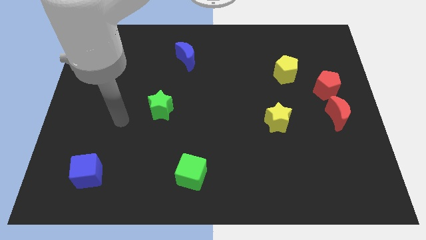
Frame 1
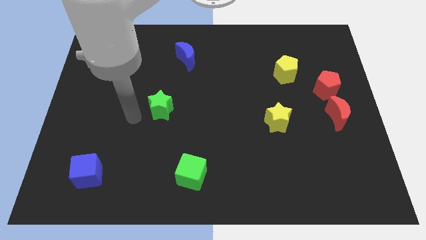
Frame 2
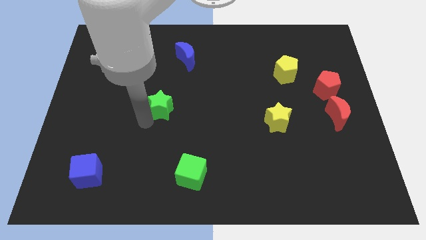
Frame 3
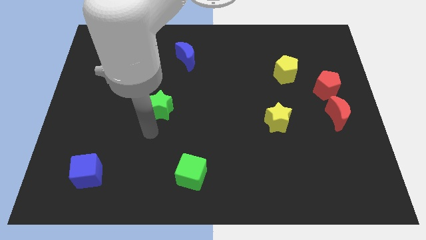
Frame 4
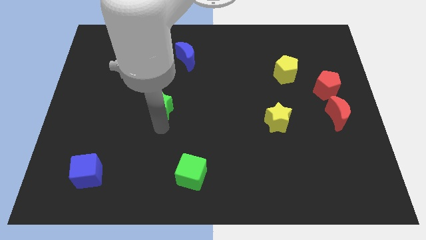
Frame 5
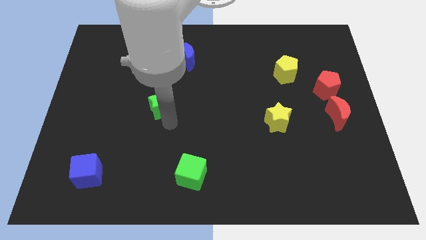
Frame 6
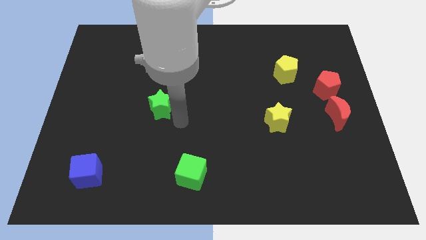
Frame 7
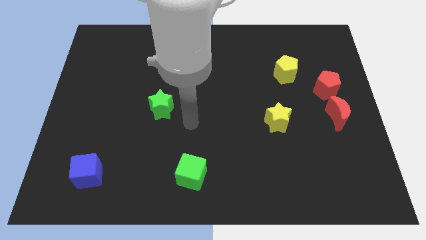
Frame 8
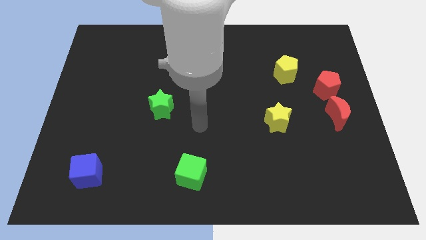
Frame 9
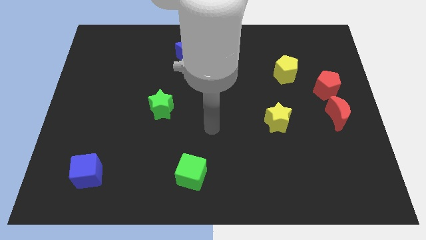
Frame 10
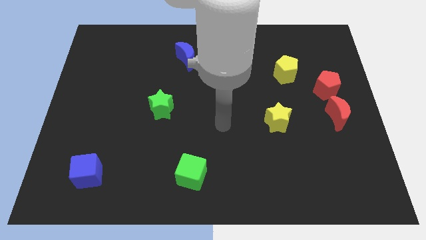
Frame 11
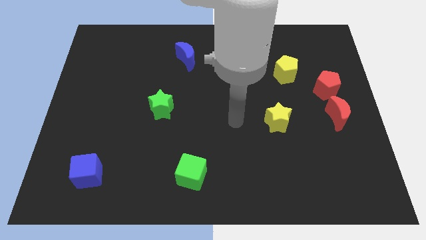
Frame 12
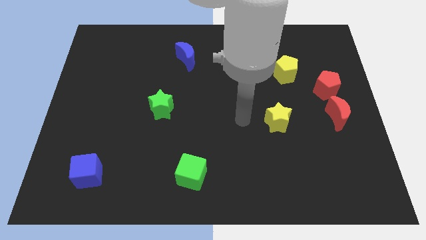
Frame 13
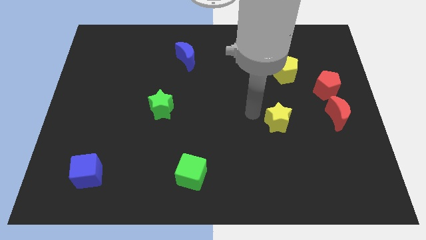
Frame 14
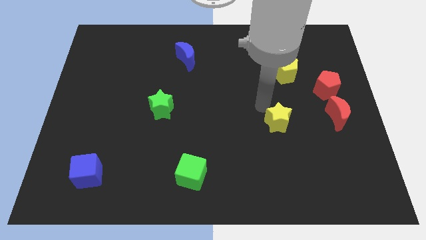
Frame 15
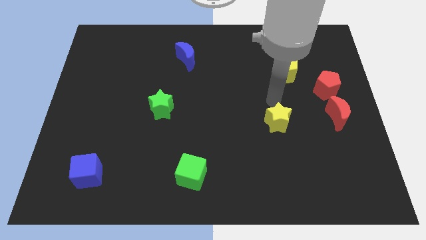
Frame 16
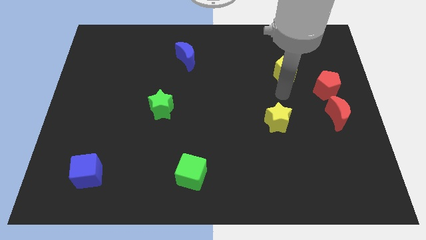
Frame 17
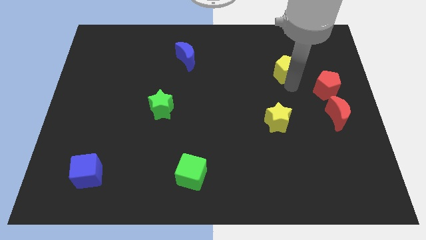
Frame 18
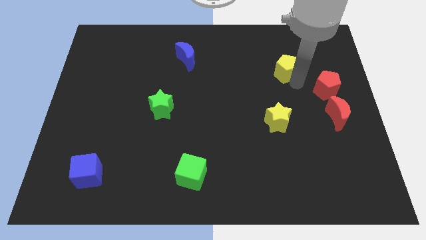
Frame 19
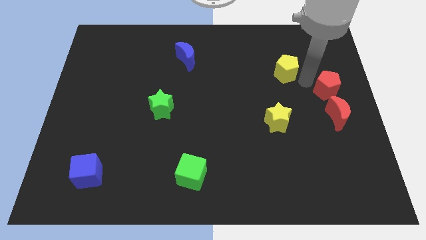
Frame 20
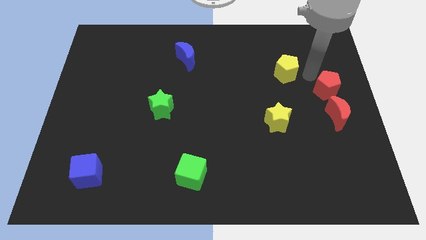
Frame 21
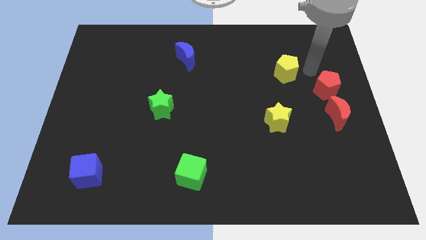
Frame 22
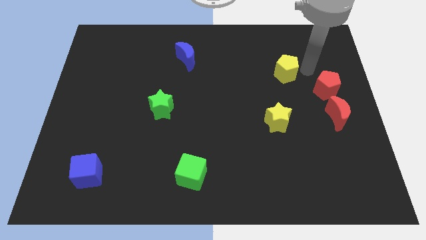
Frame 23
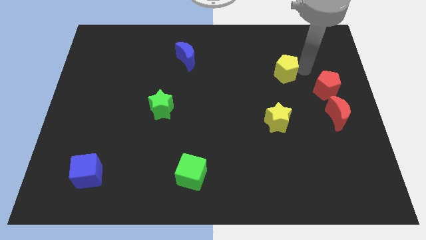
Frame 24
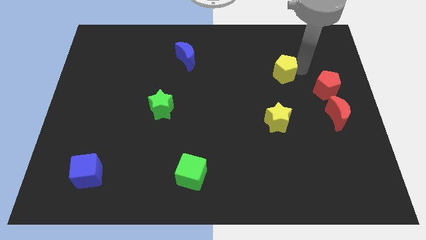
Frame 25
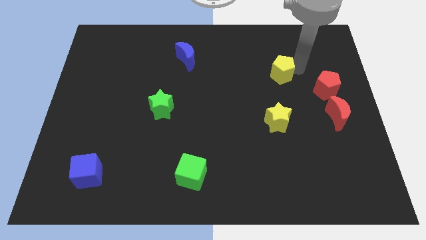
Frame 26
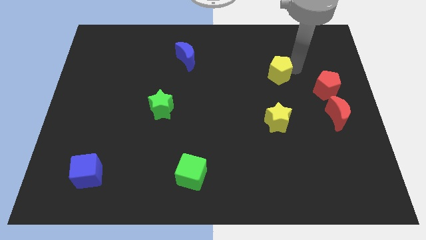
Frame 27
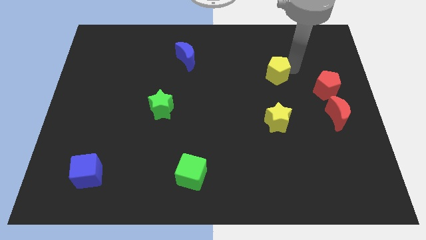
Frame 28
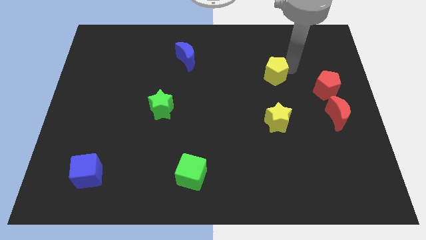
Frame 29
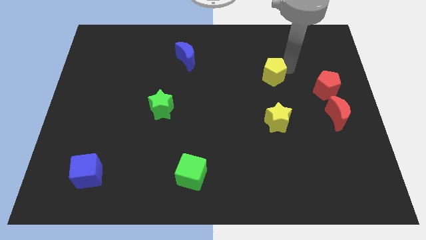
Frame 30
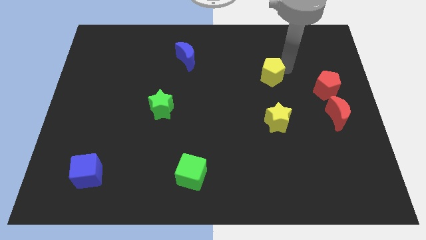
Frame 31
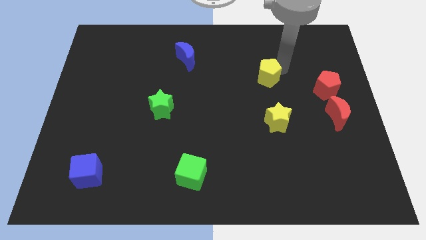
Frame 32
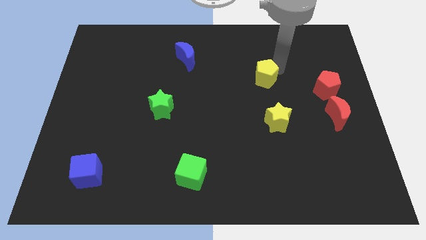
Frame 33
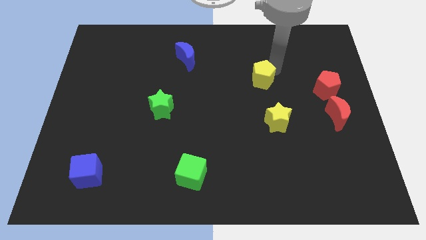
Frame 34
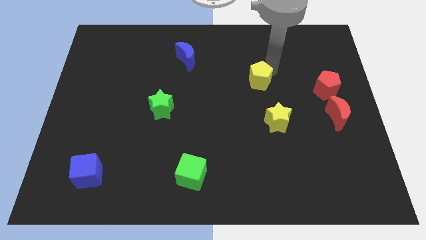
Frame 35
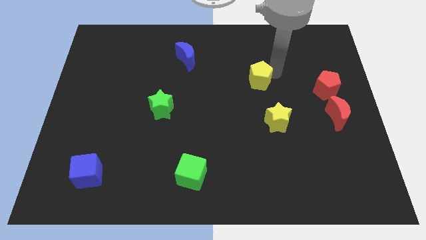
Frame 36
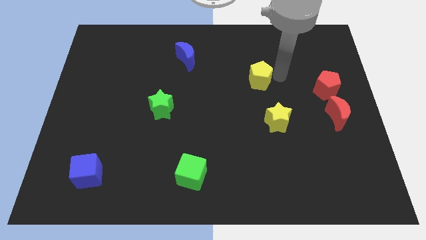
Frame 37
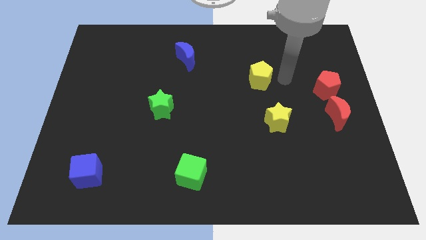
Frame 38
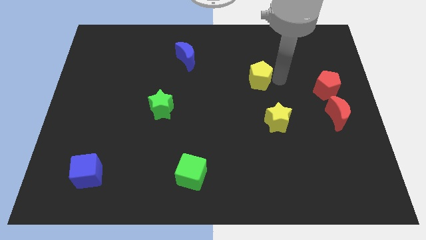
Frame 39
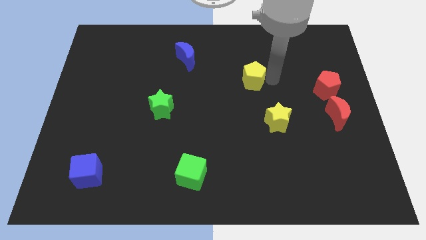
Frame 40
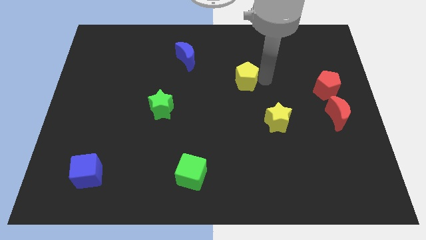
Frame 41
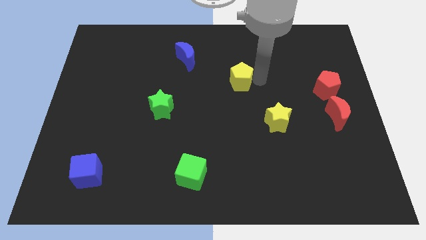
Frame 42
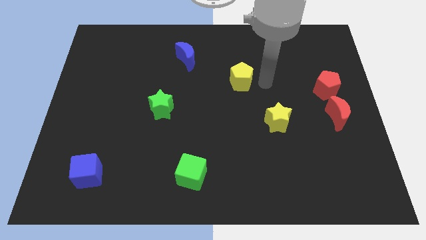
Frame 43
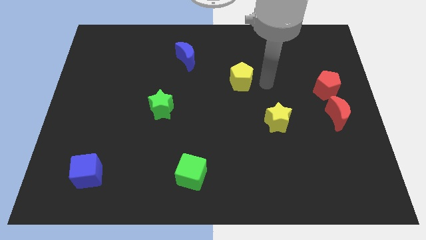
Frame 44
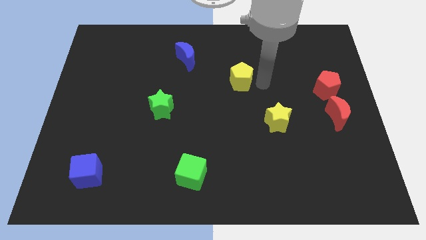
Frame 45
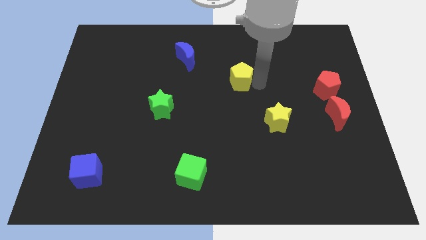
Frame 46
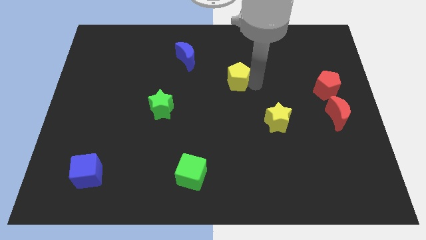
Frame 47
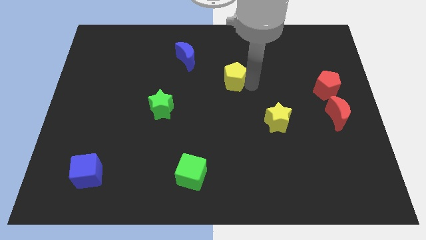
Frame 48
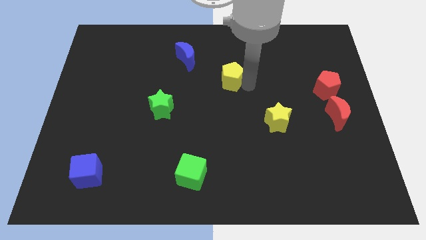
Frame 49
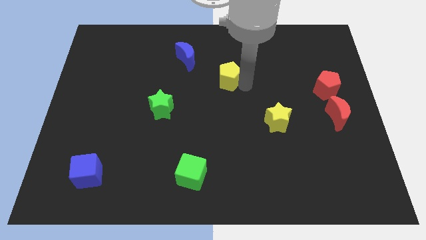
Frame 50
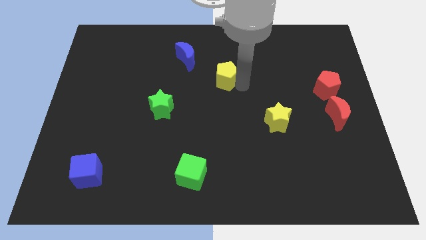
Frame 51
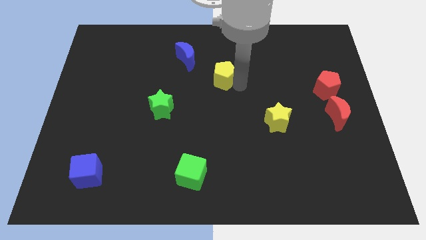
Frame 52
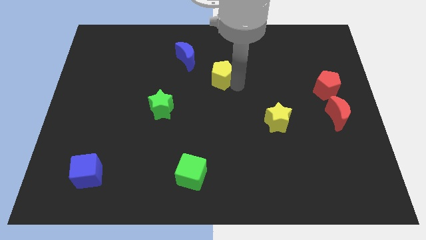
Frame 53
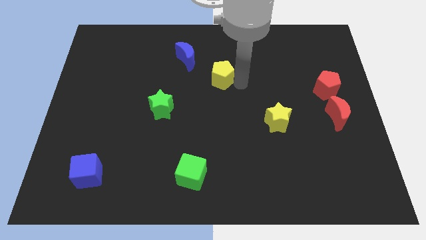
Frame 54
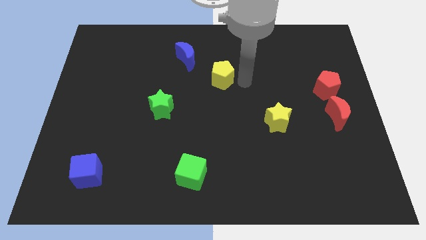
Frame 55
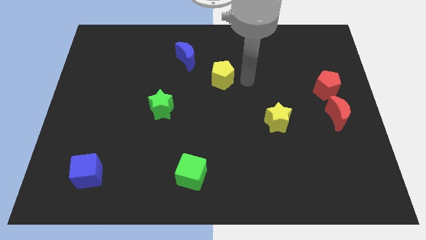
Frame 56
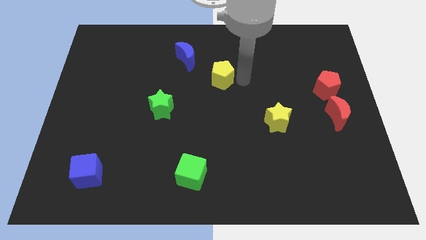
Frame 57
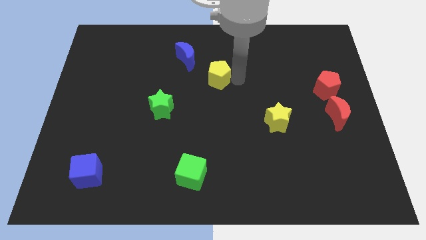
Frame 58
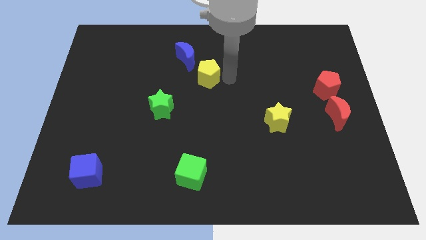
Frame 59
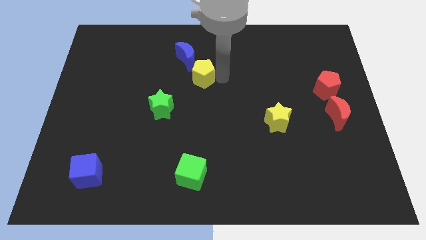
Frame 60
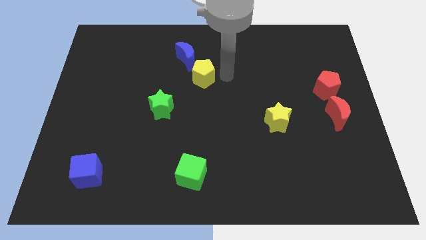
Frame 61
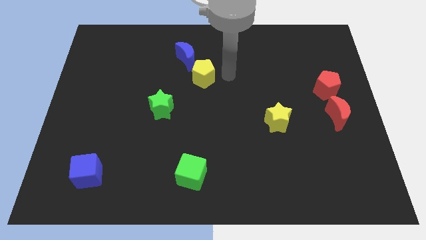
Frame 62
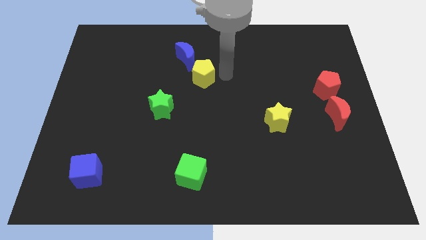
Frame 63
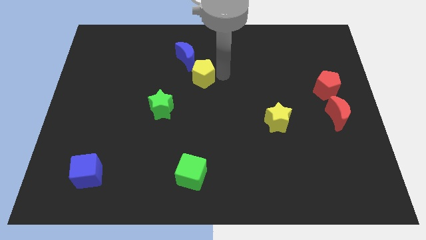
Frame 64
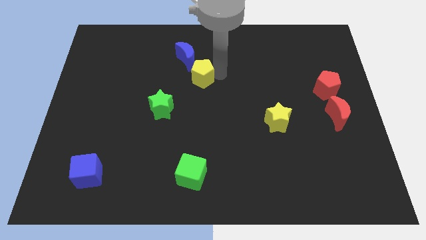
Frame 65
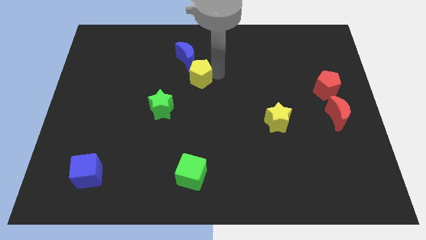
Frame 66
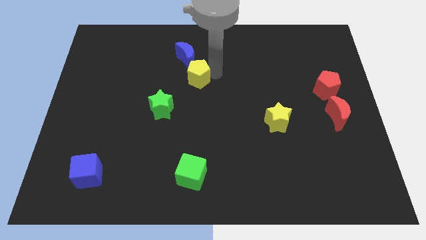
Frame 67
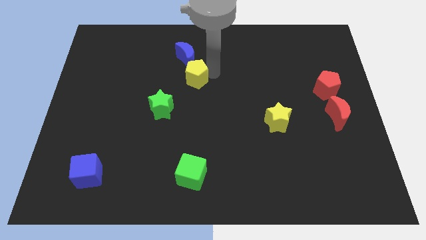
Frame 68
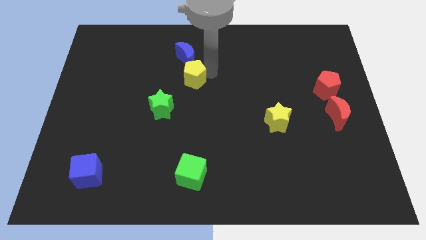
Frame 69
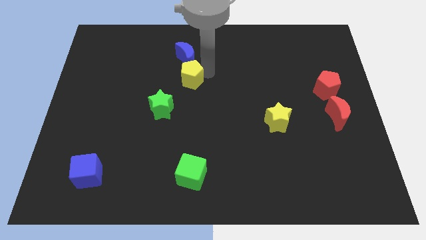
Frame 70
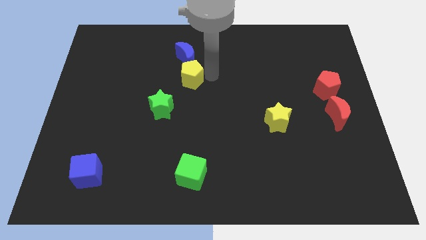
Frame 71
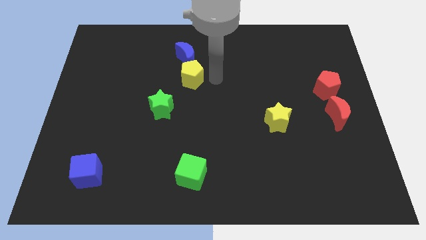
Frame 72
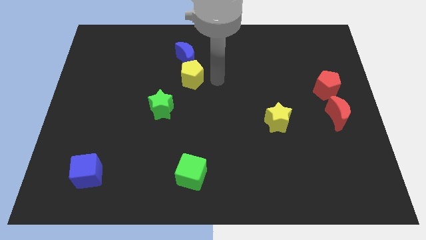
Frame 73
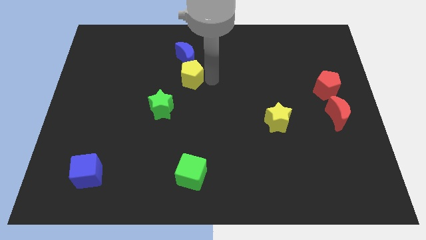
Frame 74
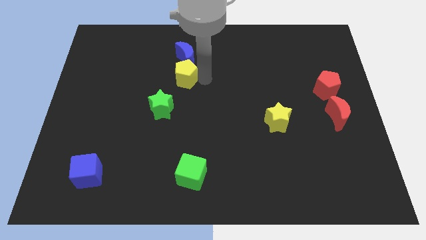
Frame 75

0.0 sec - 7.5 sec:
push the yellow pentagon above the green star
